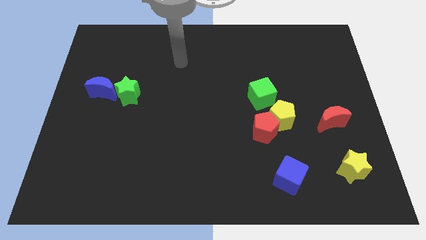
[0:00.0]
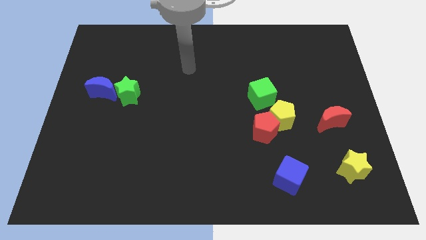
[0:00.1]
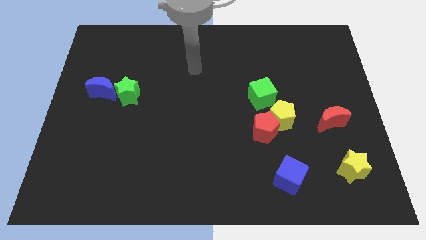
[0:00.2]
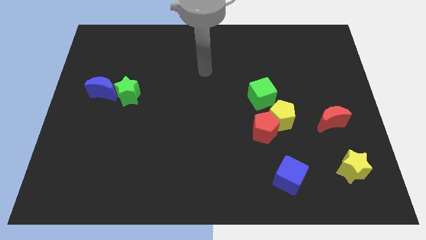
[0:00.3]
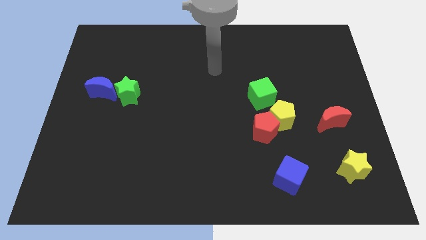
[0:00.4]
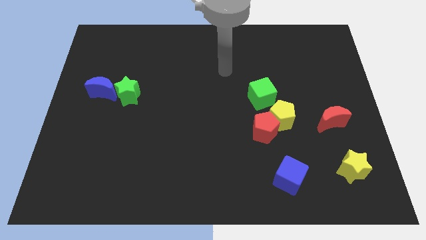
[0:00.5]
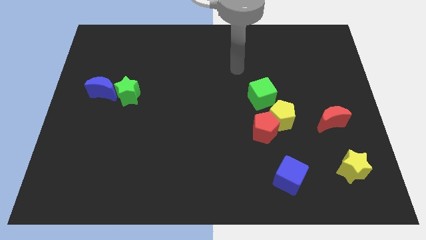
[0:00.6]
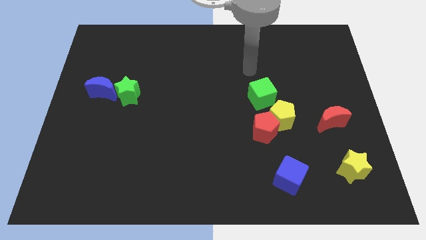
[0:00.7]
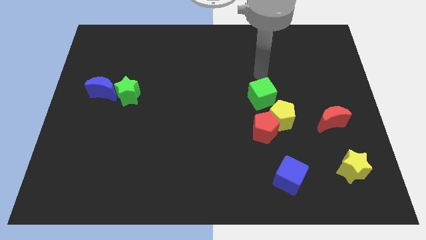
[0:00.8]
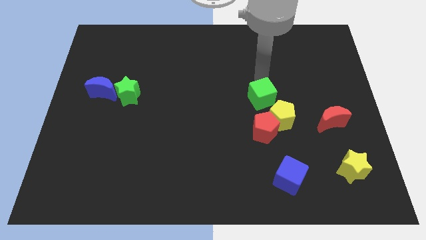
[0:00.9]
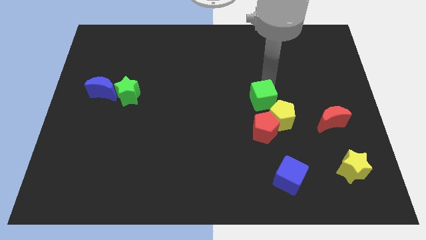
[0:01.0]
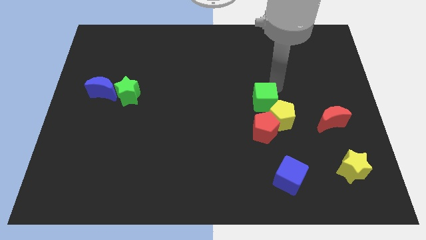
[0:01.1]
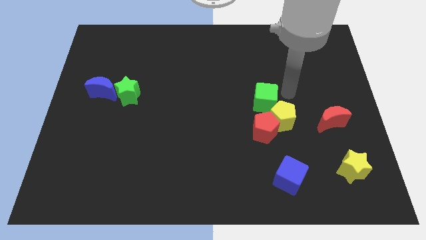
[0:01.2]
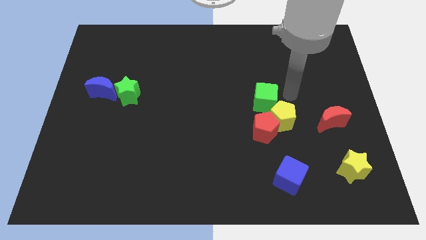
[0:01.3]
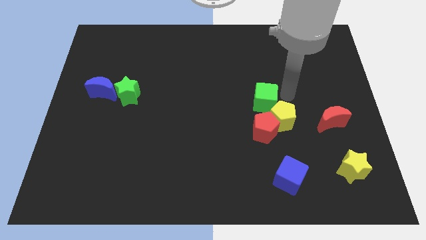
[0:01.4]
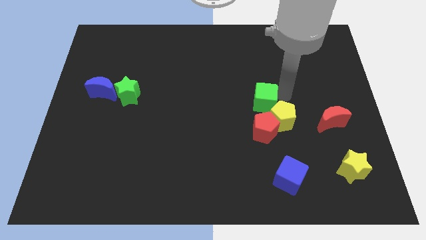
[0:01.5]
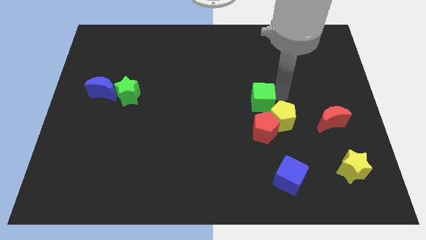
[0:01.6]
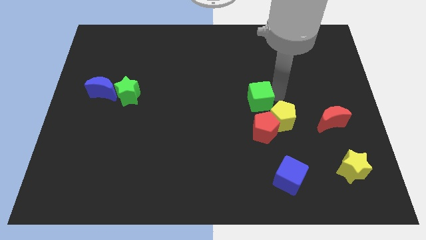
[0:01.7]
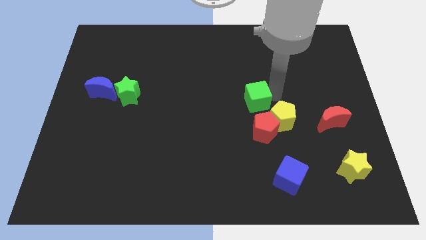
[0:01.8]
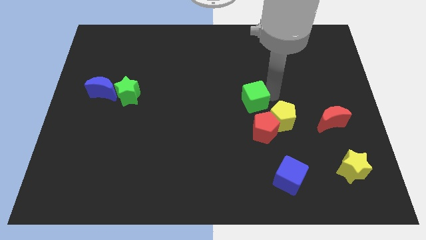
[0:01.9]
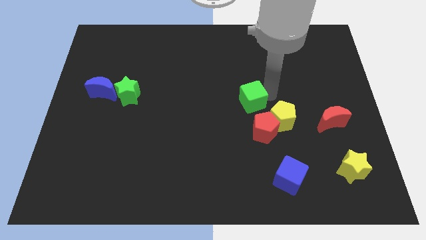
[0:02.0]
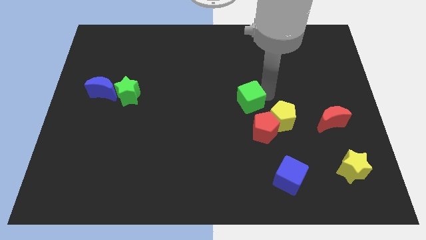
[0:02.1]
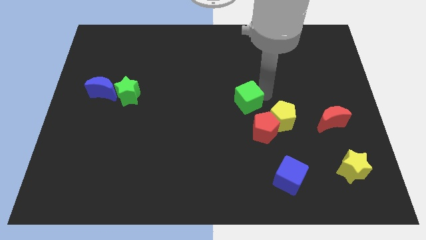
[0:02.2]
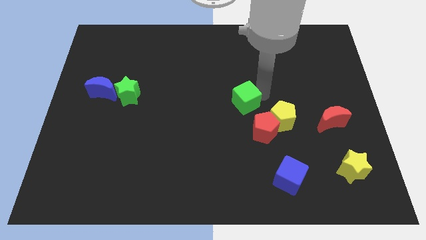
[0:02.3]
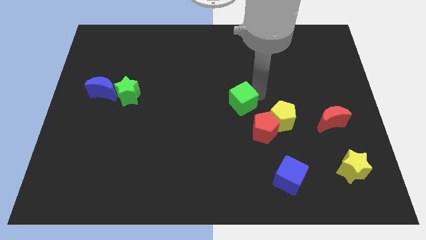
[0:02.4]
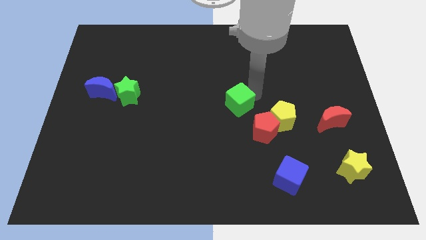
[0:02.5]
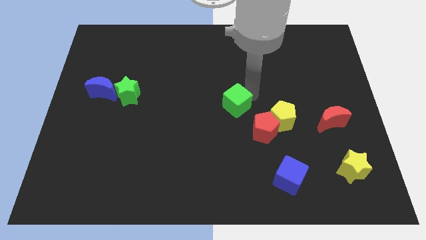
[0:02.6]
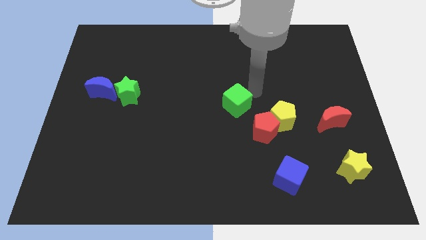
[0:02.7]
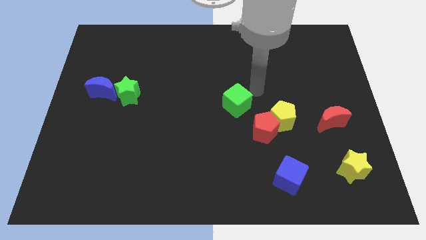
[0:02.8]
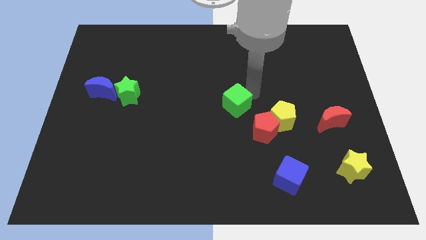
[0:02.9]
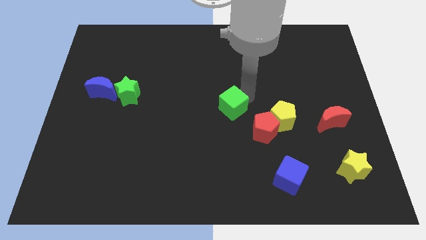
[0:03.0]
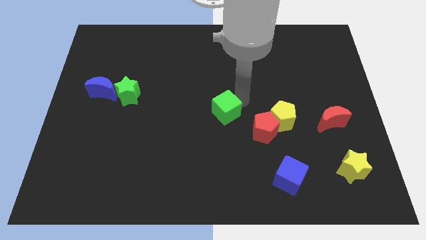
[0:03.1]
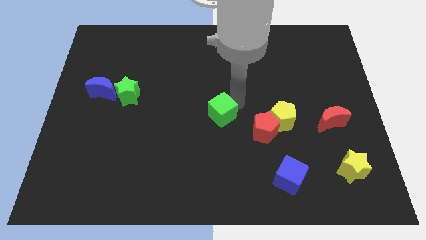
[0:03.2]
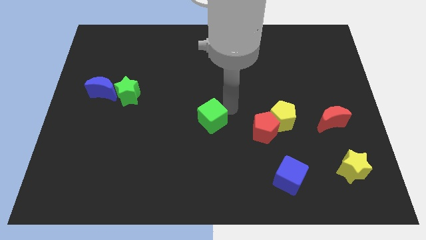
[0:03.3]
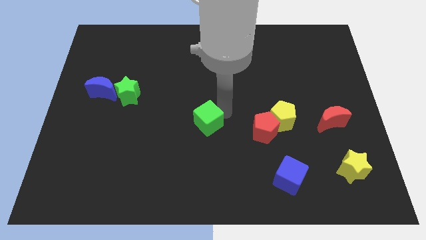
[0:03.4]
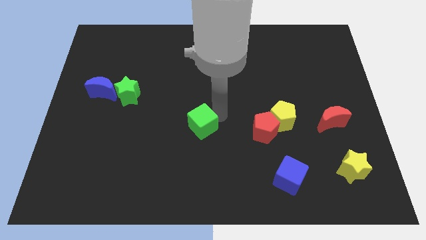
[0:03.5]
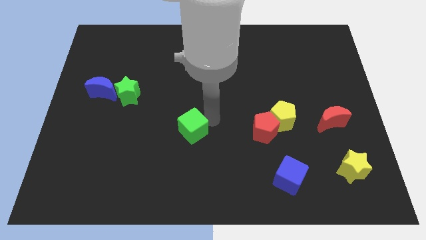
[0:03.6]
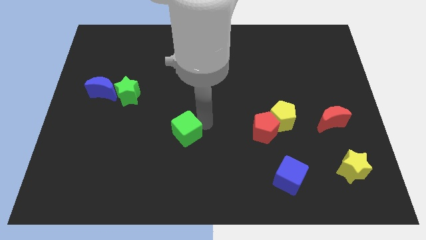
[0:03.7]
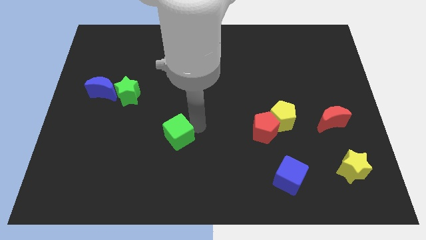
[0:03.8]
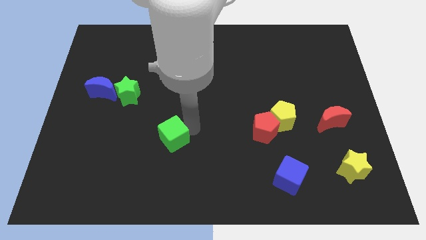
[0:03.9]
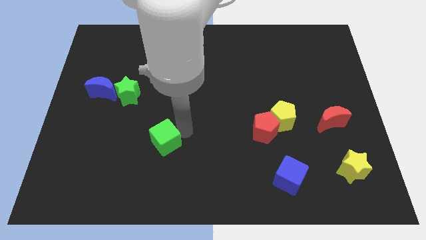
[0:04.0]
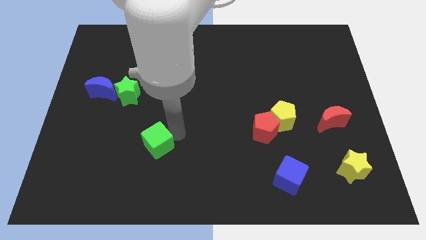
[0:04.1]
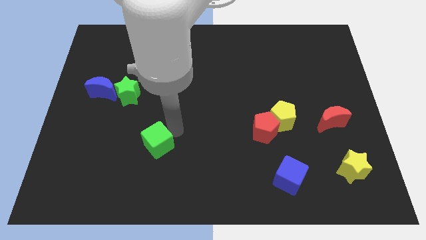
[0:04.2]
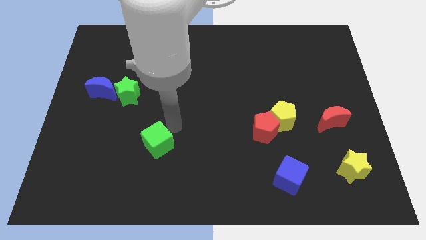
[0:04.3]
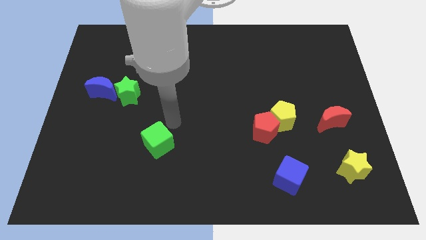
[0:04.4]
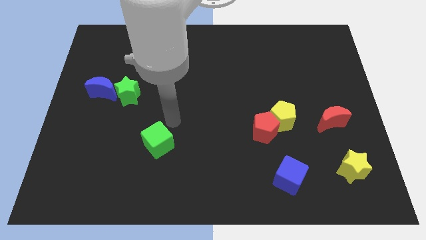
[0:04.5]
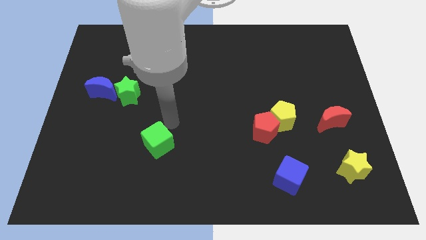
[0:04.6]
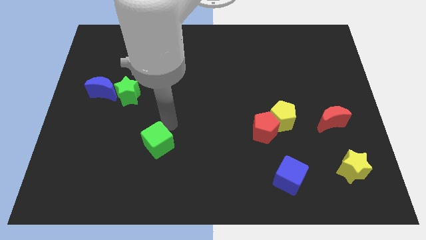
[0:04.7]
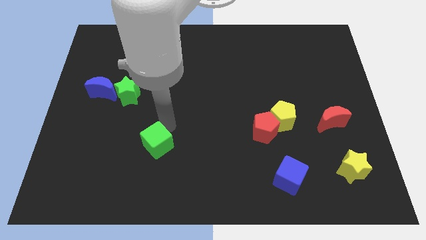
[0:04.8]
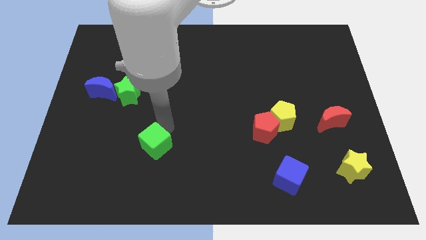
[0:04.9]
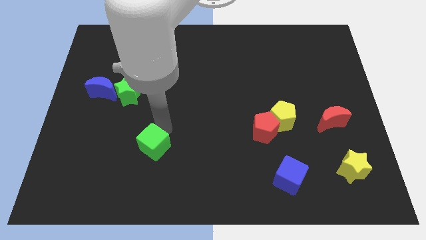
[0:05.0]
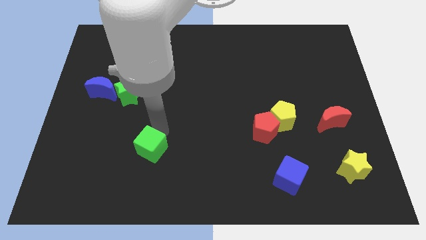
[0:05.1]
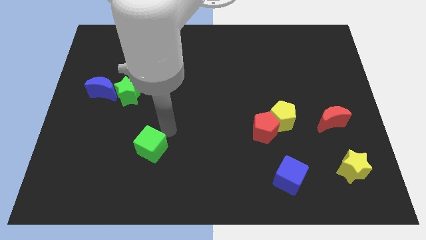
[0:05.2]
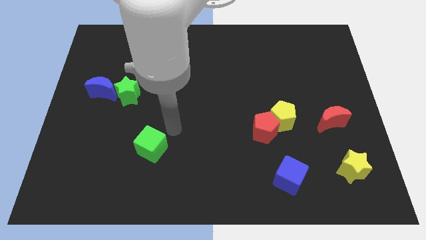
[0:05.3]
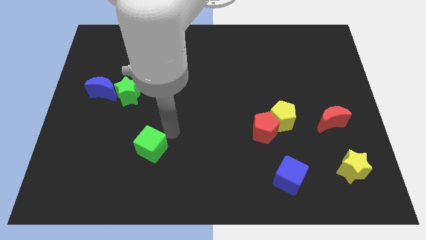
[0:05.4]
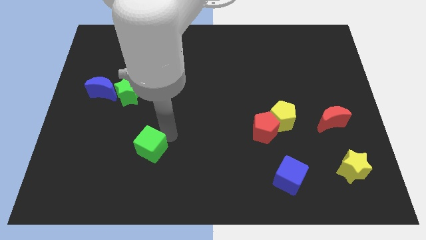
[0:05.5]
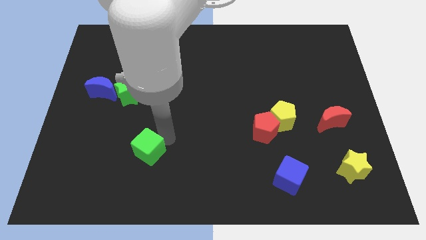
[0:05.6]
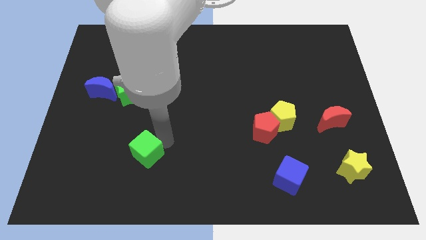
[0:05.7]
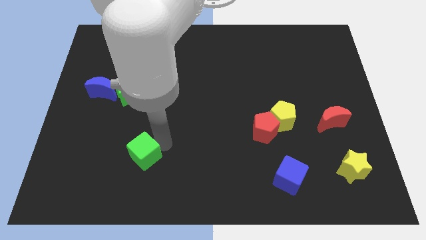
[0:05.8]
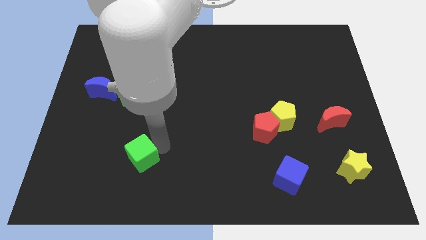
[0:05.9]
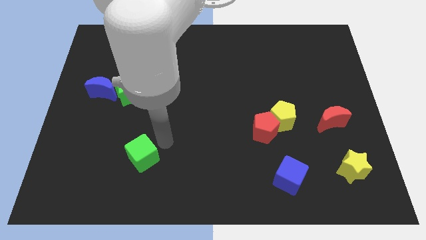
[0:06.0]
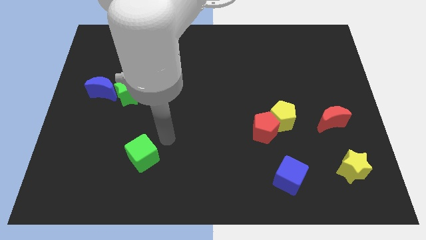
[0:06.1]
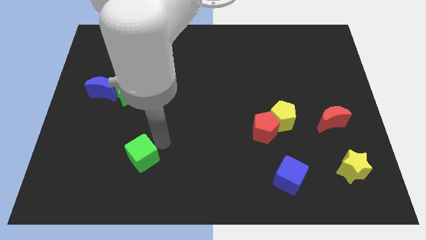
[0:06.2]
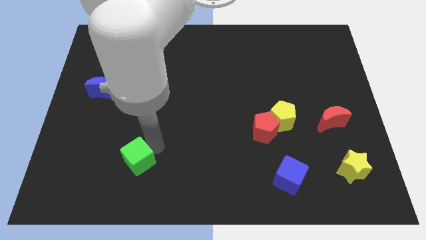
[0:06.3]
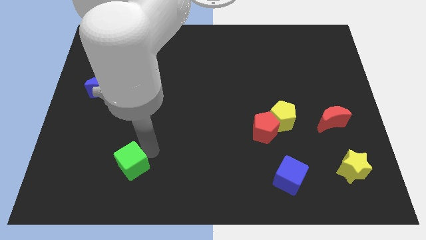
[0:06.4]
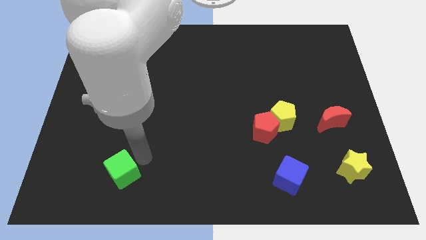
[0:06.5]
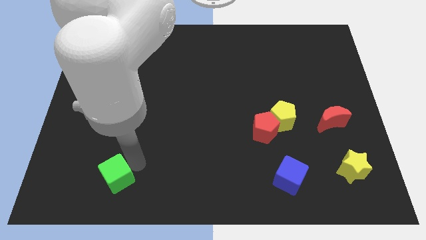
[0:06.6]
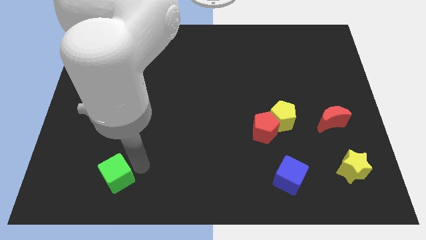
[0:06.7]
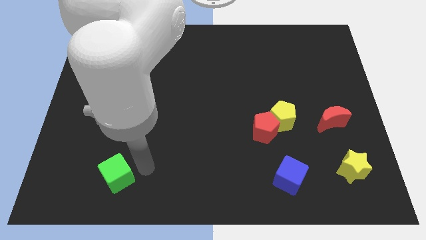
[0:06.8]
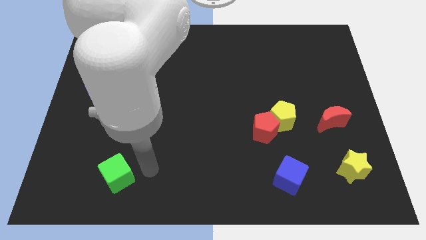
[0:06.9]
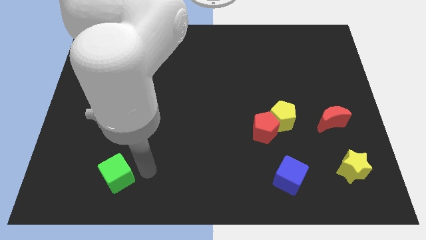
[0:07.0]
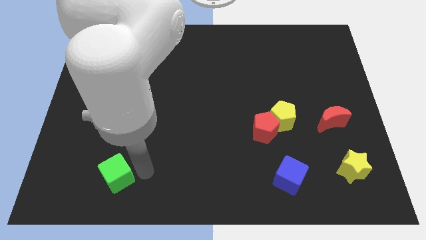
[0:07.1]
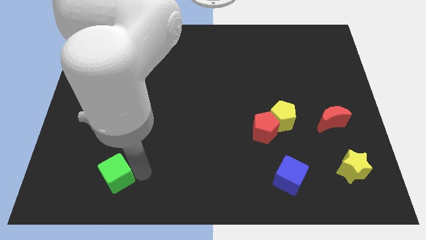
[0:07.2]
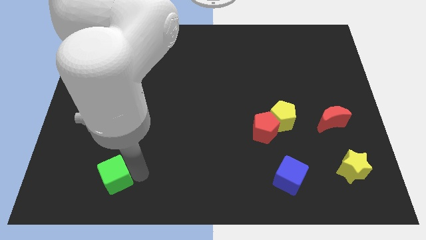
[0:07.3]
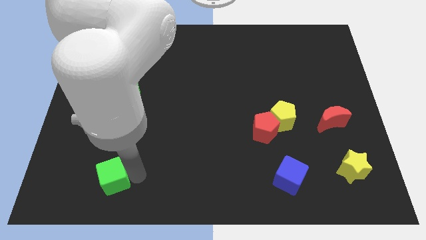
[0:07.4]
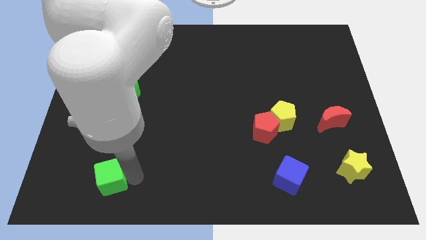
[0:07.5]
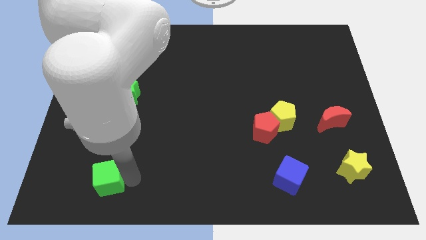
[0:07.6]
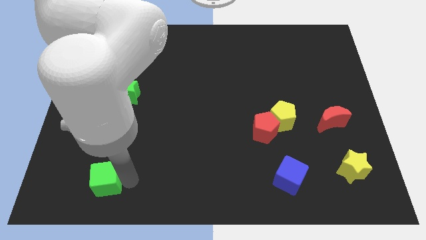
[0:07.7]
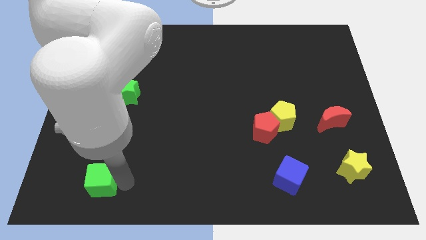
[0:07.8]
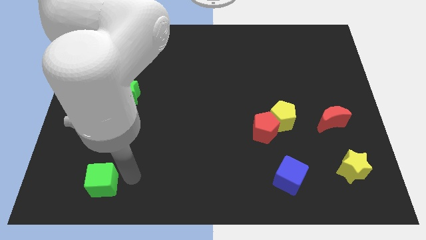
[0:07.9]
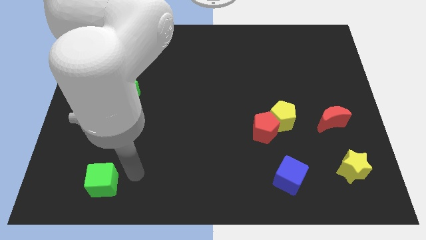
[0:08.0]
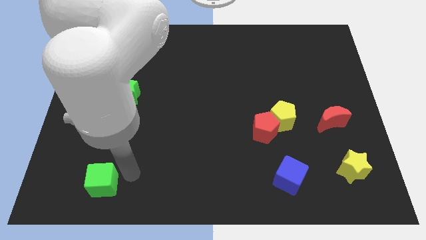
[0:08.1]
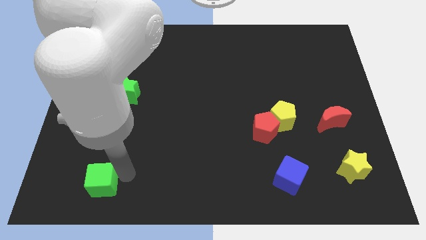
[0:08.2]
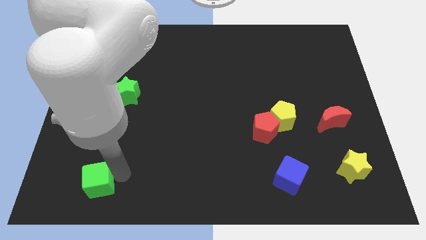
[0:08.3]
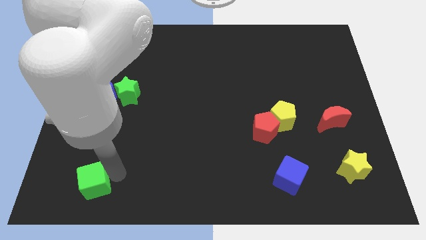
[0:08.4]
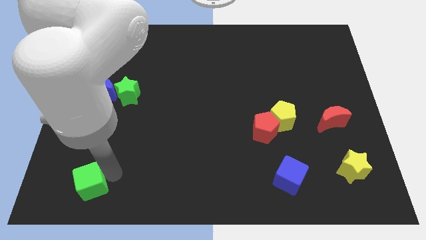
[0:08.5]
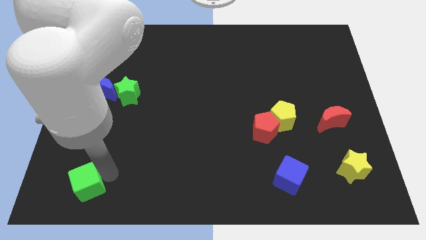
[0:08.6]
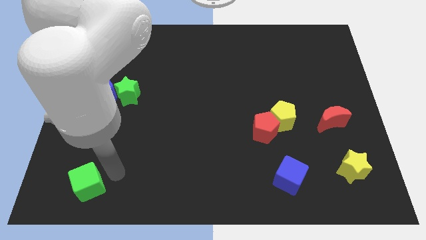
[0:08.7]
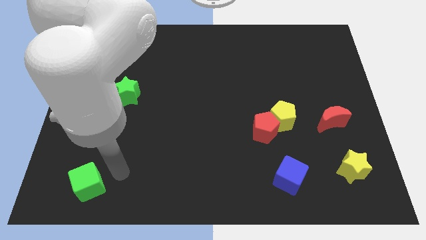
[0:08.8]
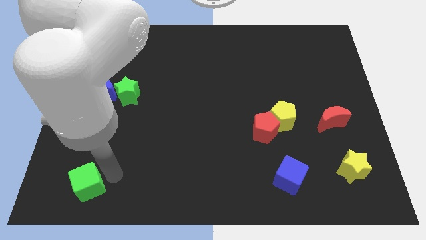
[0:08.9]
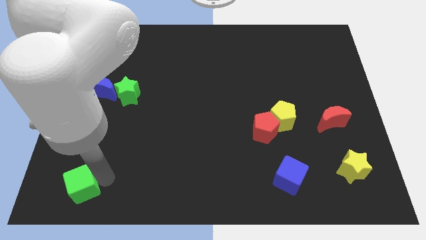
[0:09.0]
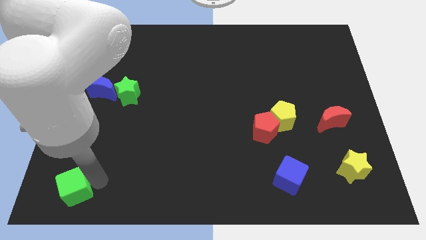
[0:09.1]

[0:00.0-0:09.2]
slide the green cube to the bottom left
